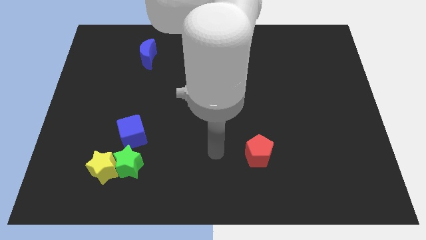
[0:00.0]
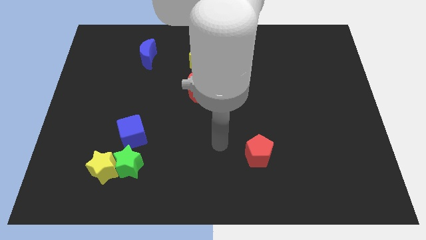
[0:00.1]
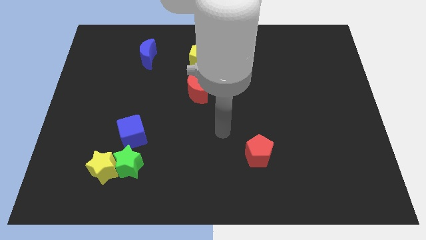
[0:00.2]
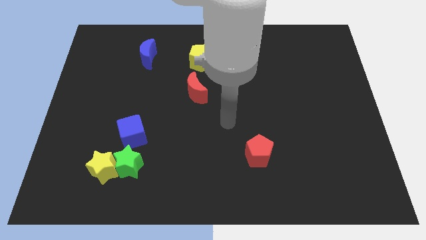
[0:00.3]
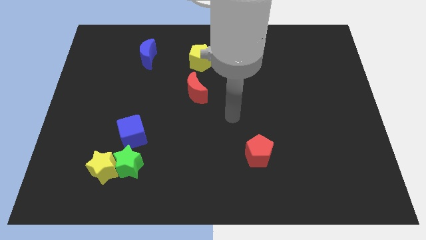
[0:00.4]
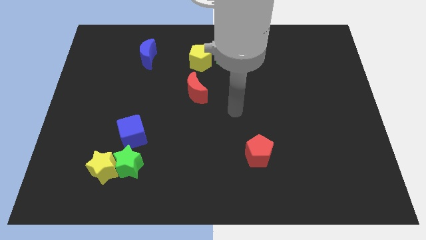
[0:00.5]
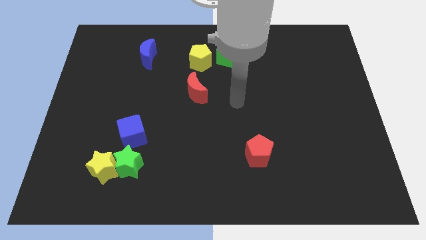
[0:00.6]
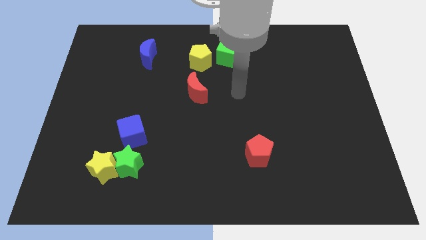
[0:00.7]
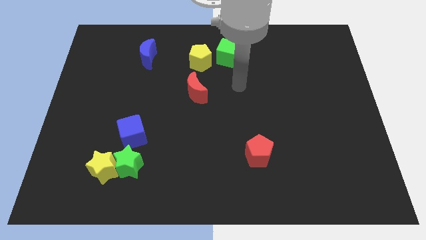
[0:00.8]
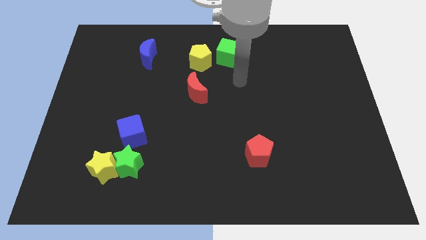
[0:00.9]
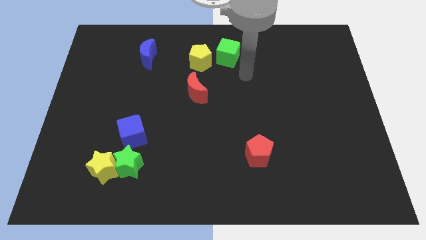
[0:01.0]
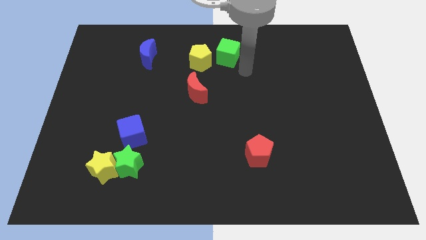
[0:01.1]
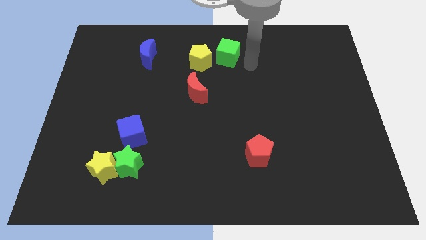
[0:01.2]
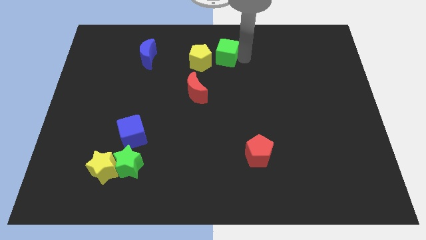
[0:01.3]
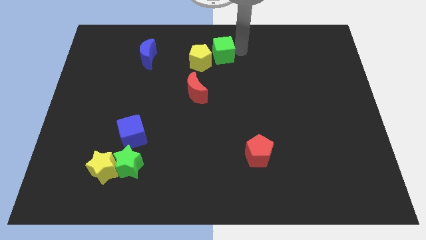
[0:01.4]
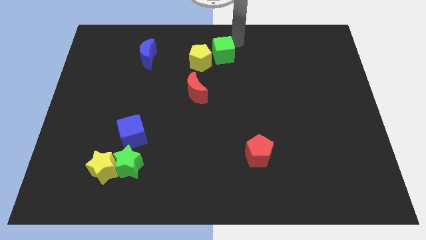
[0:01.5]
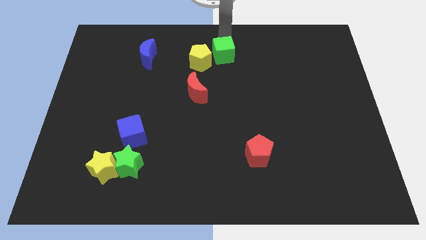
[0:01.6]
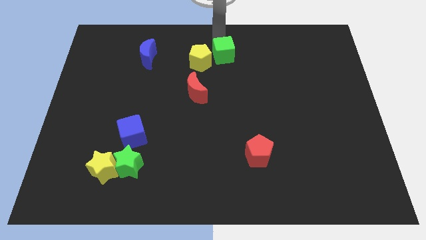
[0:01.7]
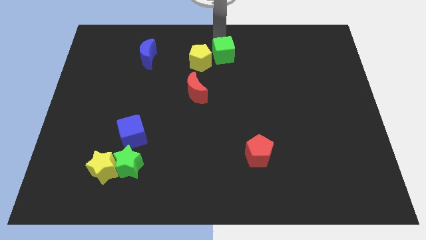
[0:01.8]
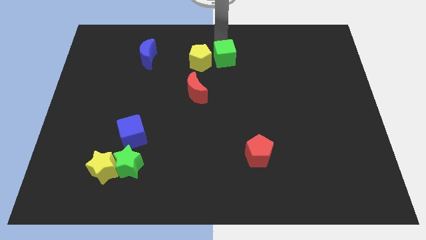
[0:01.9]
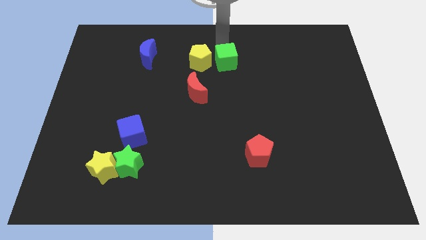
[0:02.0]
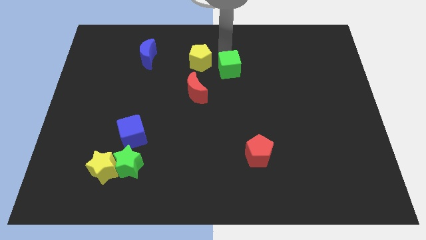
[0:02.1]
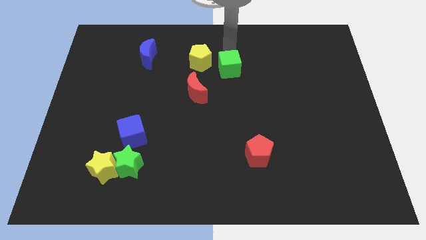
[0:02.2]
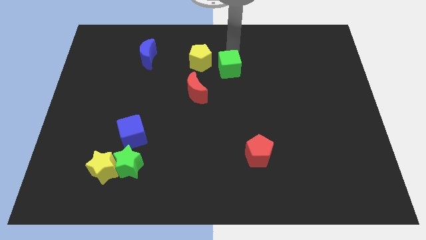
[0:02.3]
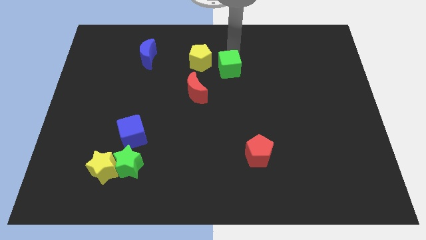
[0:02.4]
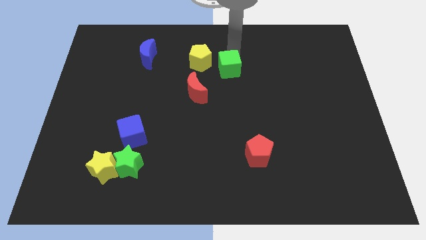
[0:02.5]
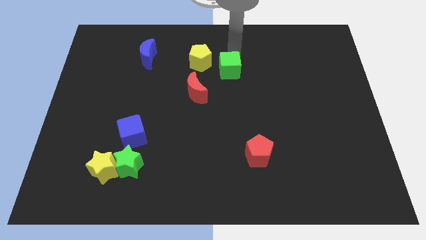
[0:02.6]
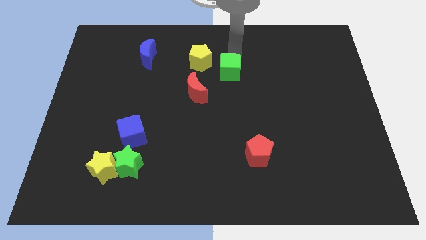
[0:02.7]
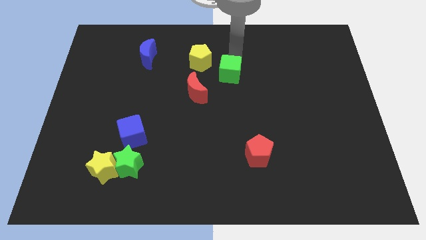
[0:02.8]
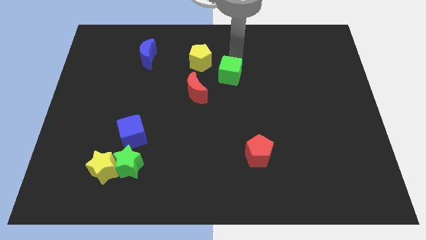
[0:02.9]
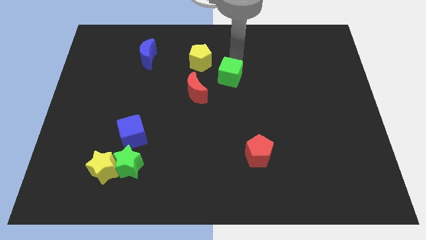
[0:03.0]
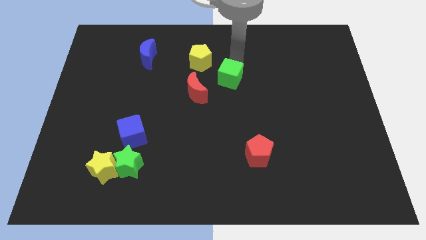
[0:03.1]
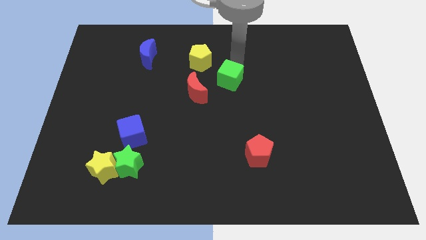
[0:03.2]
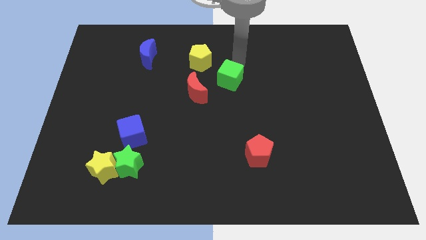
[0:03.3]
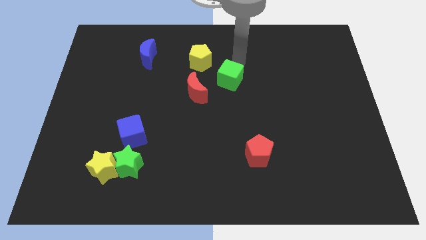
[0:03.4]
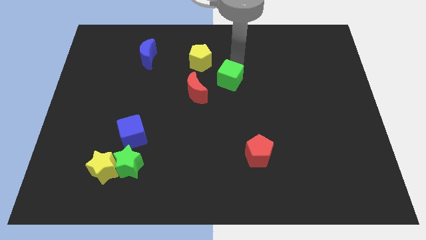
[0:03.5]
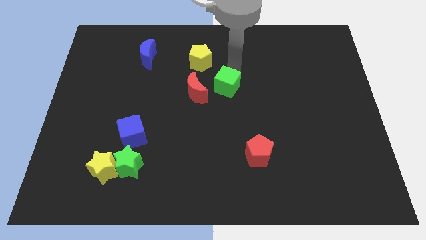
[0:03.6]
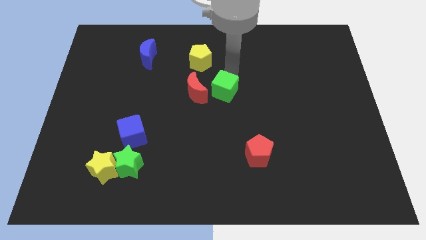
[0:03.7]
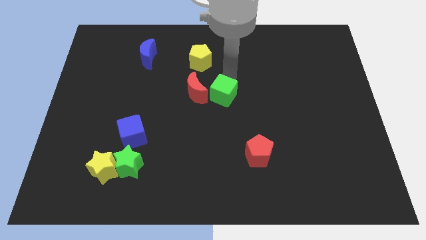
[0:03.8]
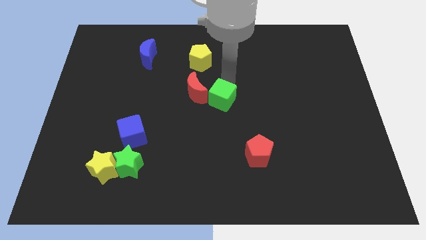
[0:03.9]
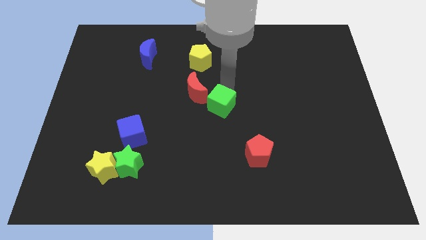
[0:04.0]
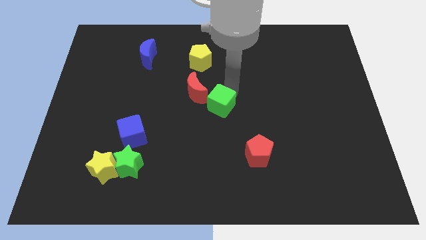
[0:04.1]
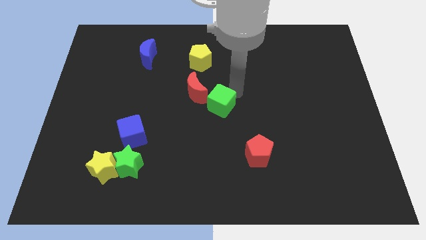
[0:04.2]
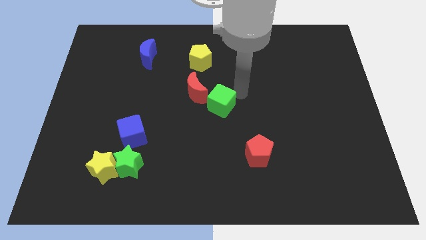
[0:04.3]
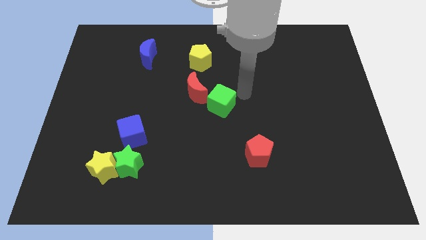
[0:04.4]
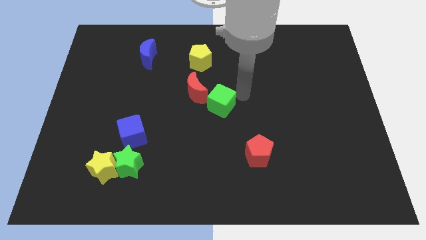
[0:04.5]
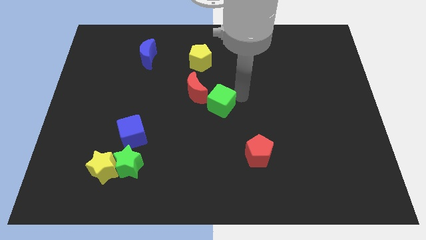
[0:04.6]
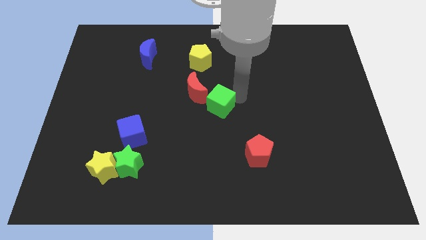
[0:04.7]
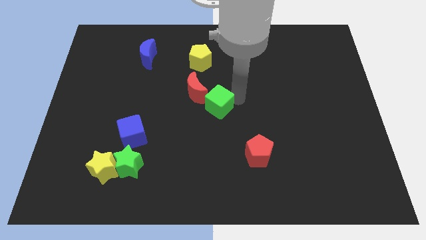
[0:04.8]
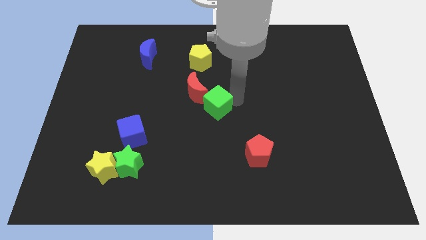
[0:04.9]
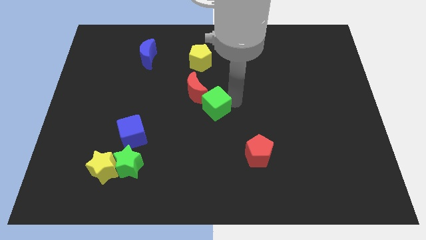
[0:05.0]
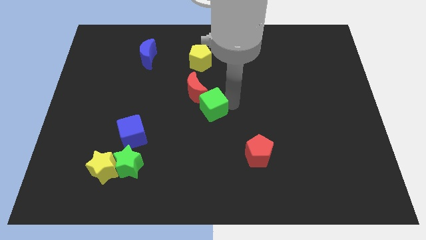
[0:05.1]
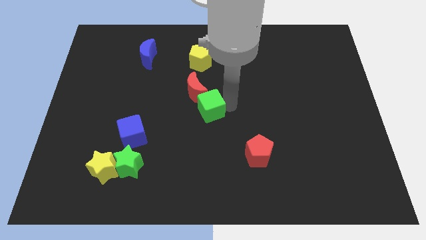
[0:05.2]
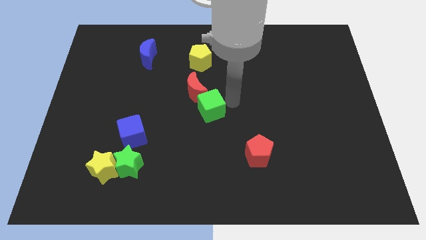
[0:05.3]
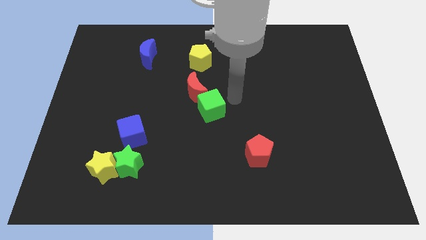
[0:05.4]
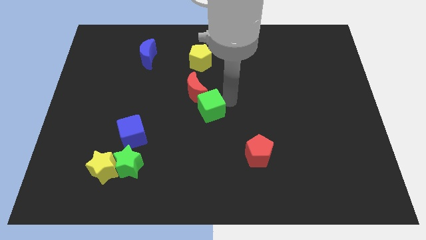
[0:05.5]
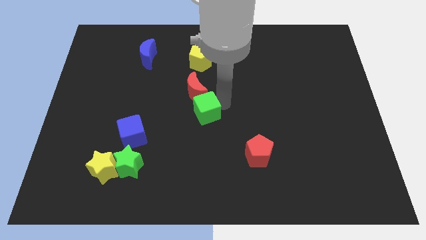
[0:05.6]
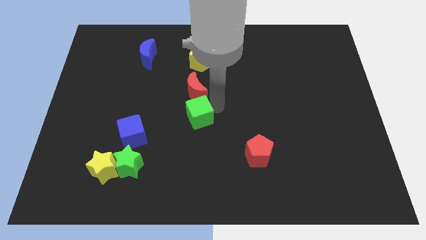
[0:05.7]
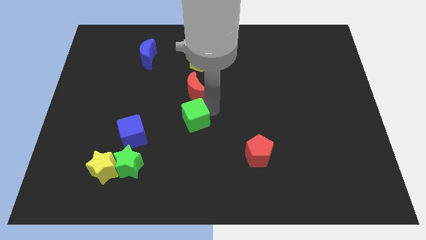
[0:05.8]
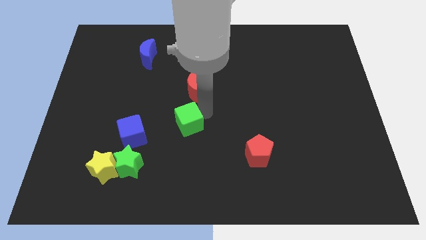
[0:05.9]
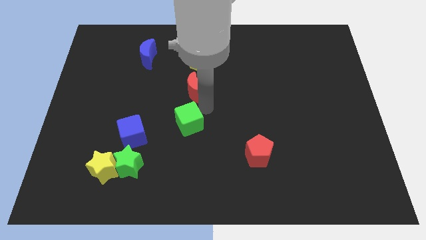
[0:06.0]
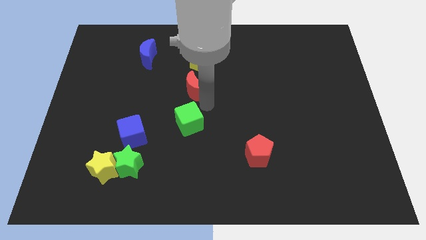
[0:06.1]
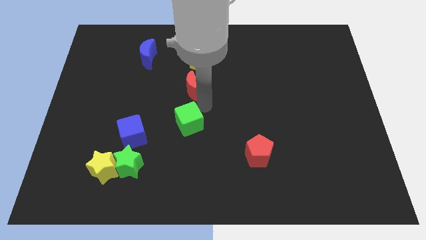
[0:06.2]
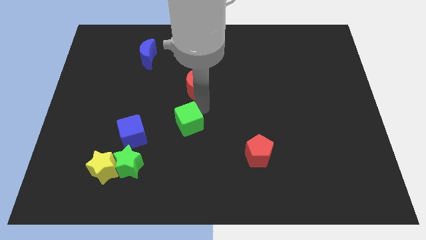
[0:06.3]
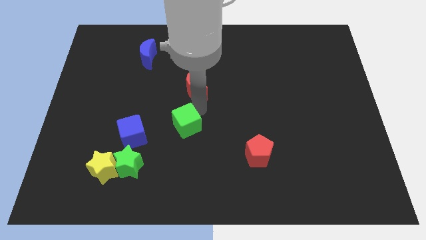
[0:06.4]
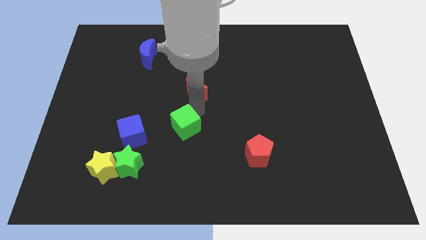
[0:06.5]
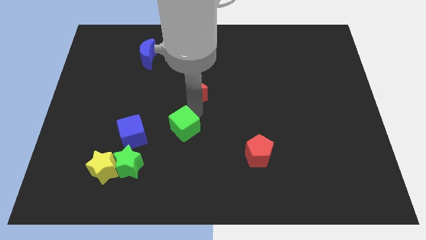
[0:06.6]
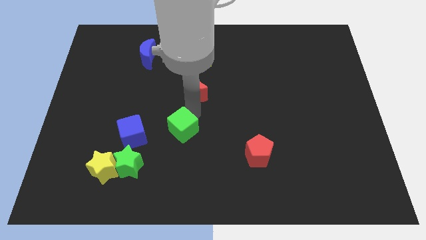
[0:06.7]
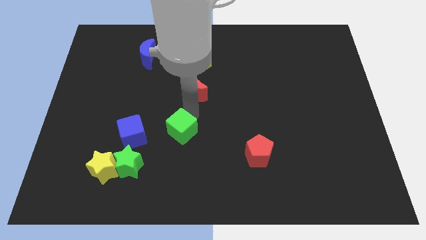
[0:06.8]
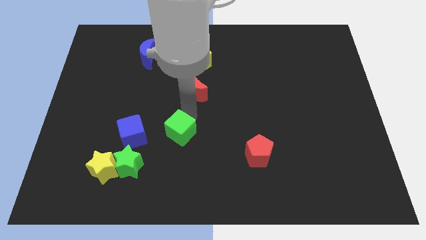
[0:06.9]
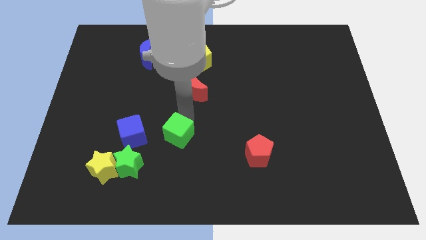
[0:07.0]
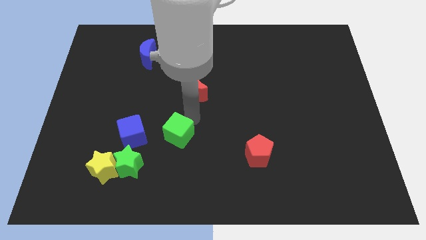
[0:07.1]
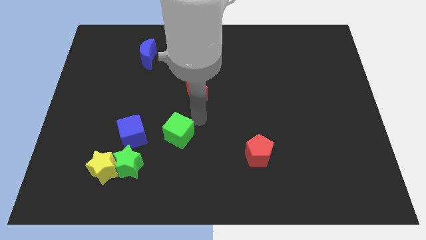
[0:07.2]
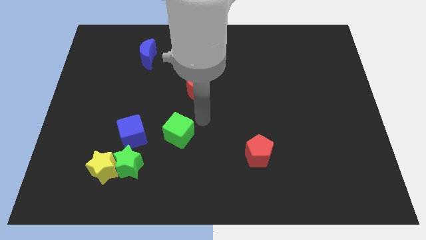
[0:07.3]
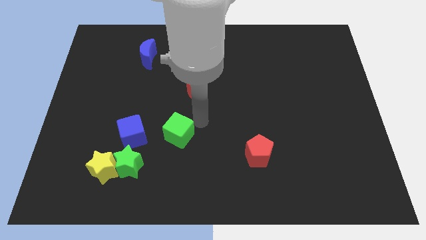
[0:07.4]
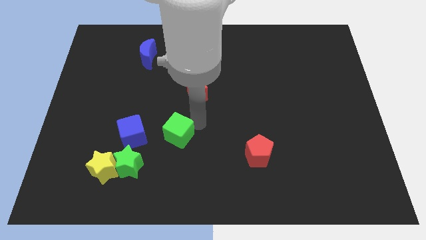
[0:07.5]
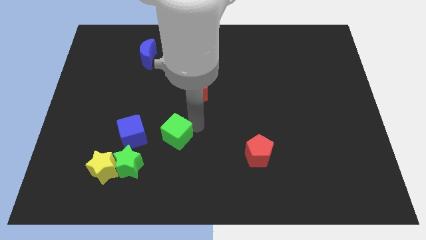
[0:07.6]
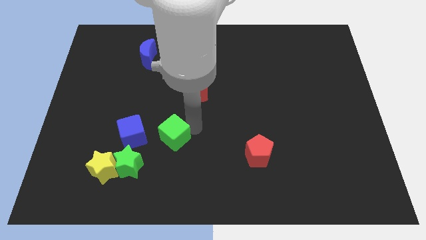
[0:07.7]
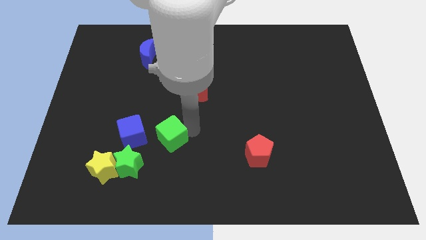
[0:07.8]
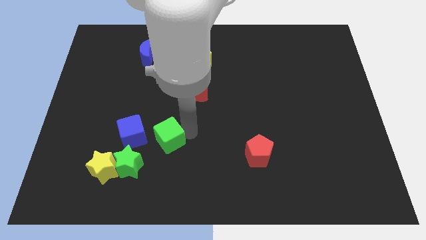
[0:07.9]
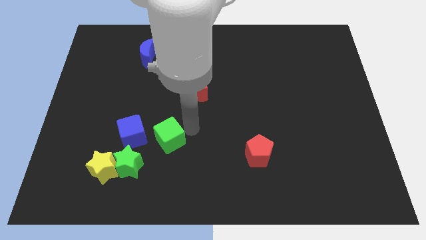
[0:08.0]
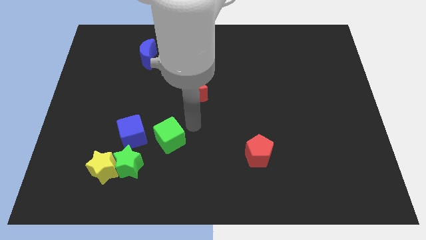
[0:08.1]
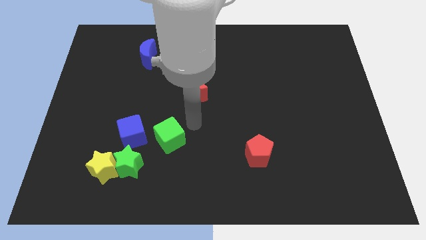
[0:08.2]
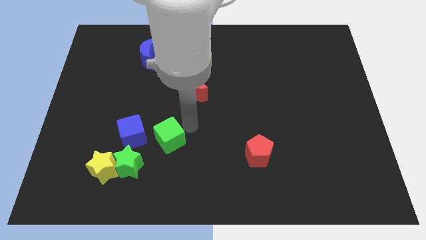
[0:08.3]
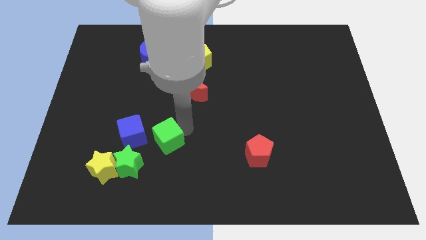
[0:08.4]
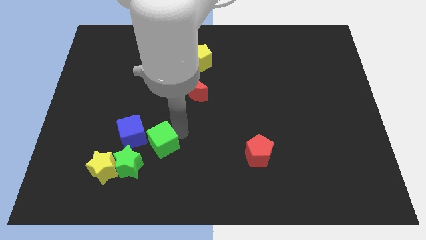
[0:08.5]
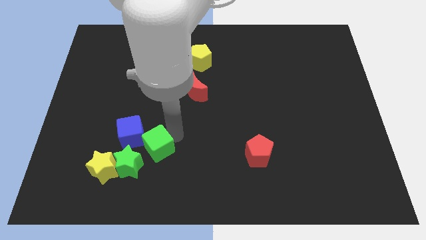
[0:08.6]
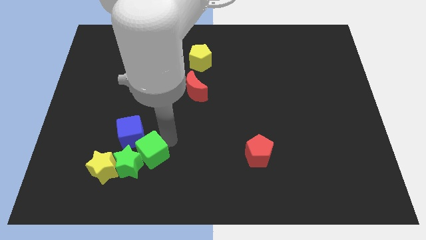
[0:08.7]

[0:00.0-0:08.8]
slide the green cube towards the green star
